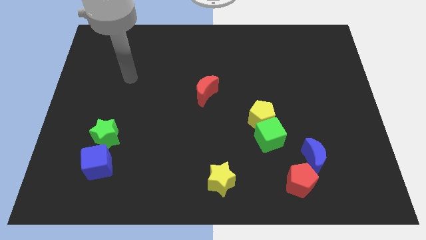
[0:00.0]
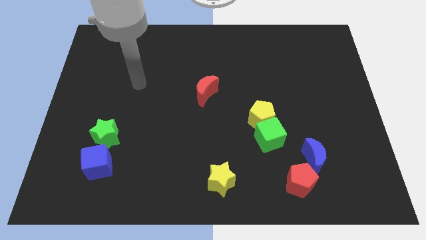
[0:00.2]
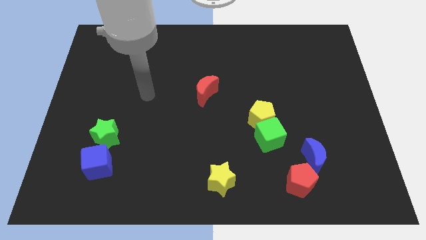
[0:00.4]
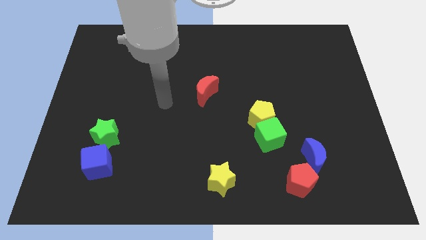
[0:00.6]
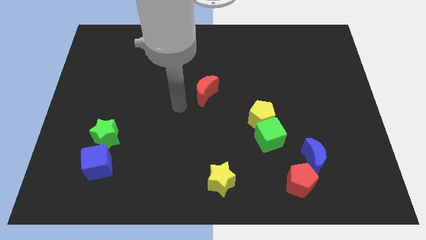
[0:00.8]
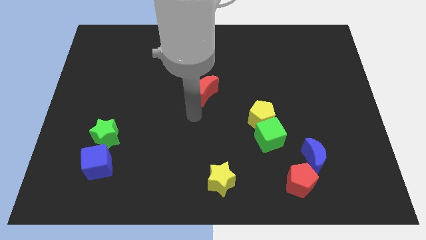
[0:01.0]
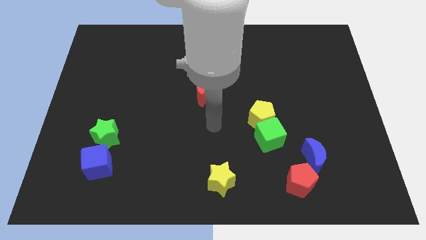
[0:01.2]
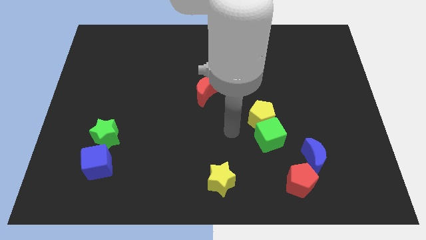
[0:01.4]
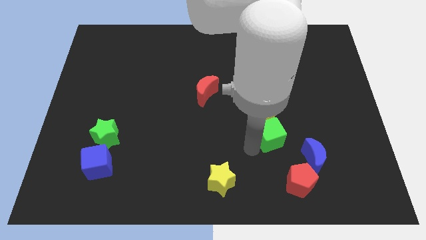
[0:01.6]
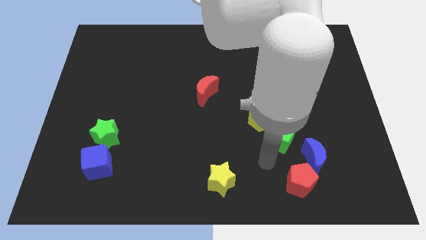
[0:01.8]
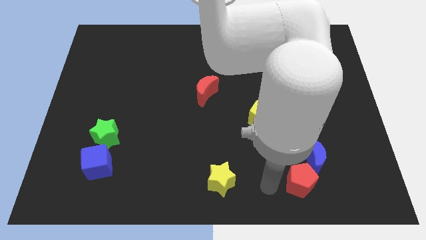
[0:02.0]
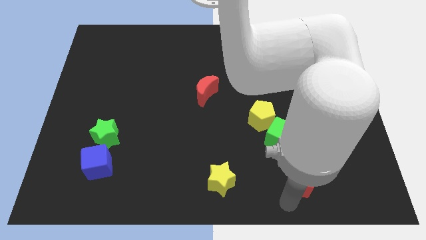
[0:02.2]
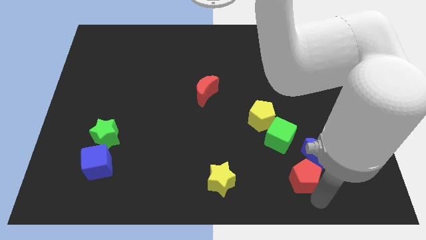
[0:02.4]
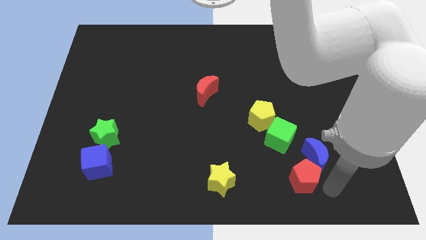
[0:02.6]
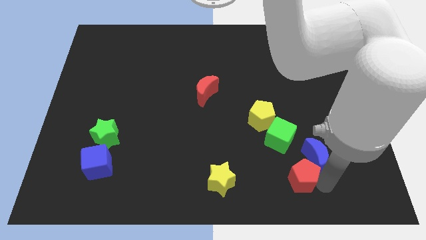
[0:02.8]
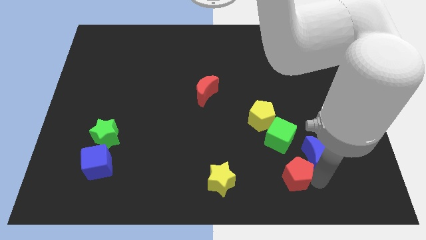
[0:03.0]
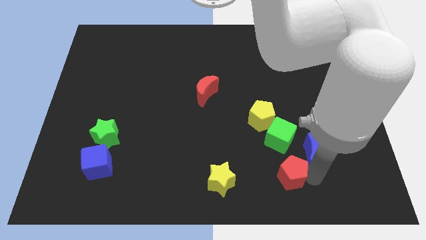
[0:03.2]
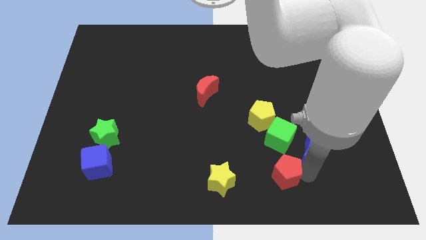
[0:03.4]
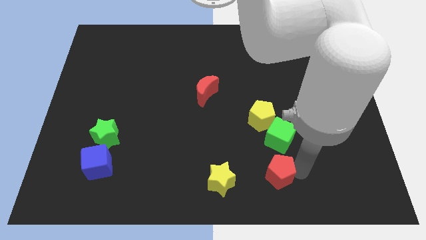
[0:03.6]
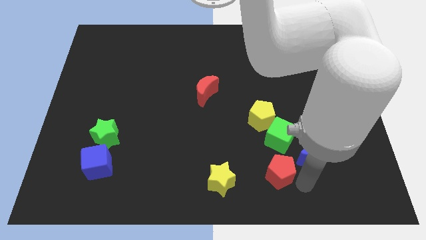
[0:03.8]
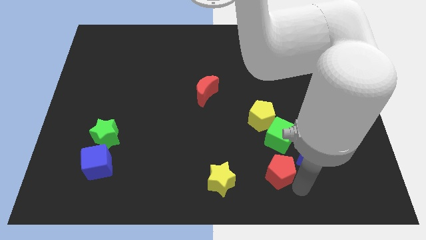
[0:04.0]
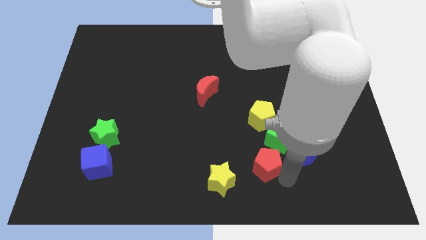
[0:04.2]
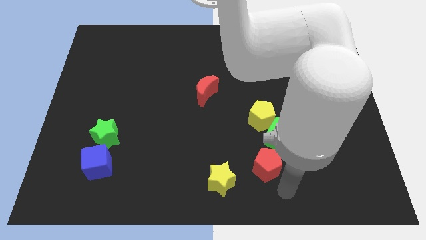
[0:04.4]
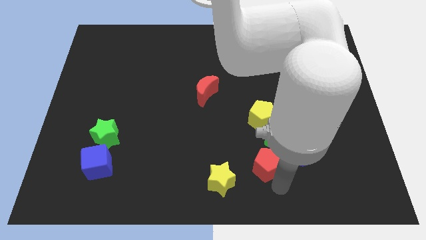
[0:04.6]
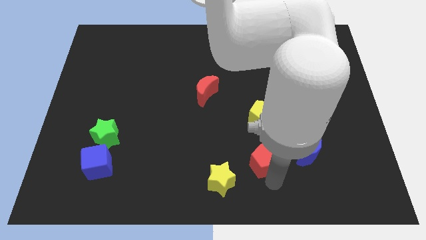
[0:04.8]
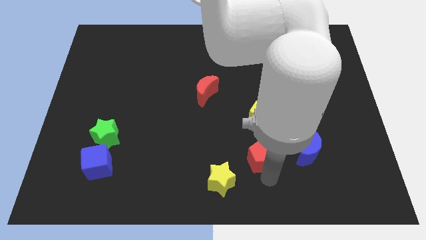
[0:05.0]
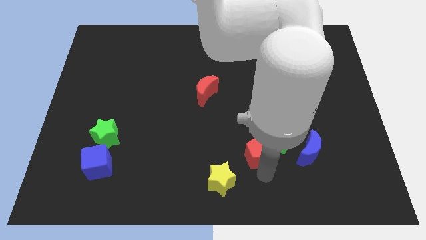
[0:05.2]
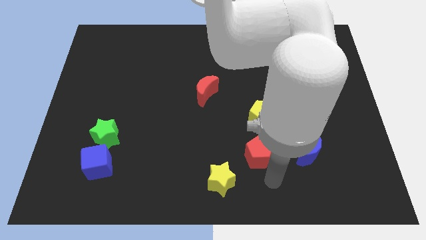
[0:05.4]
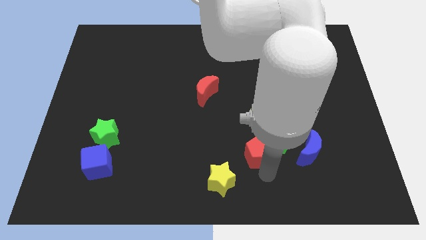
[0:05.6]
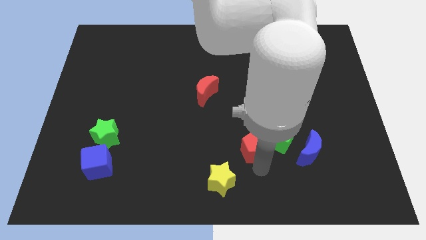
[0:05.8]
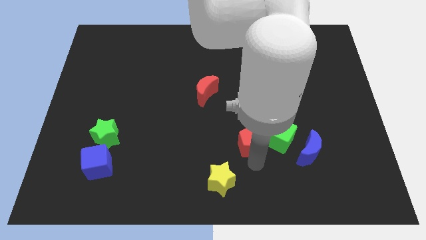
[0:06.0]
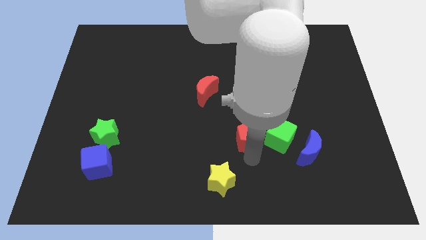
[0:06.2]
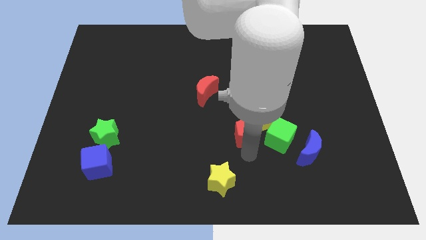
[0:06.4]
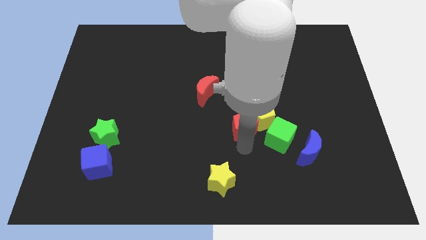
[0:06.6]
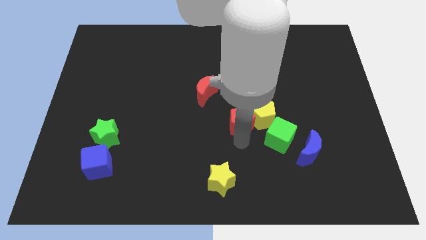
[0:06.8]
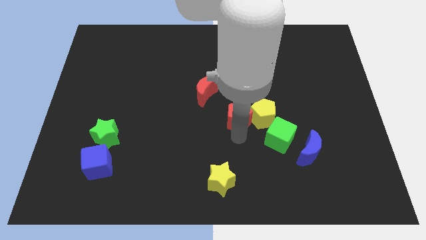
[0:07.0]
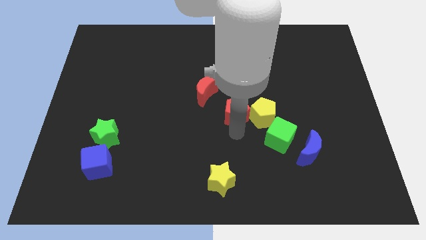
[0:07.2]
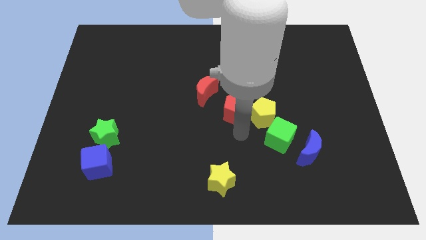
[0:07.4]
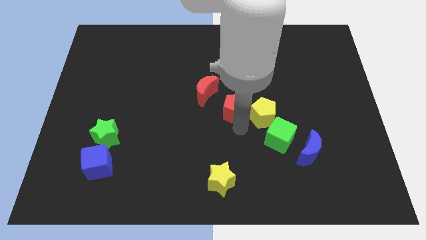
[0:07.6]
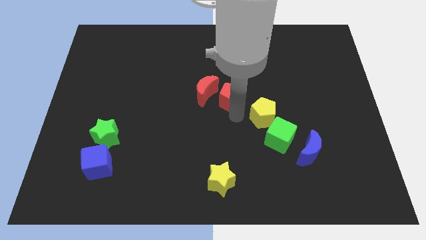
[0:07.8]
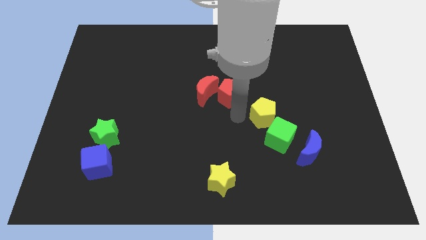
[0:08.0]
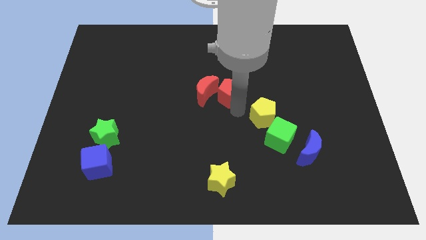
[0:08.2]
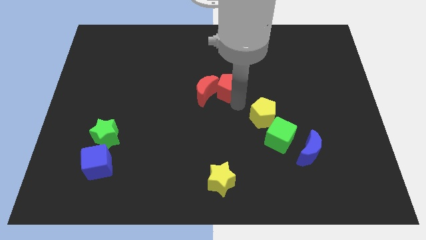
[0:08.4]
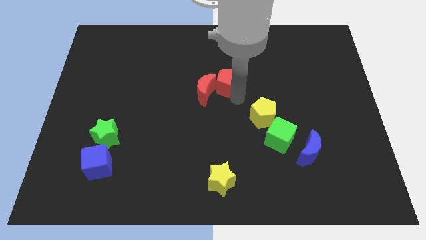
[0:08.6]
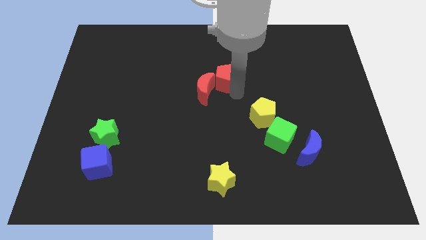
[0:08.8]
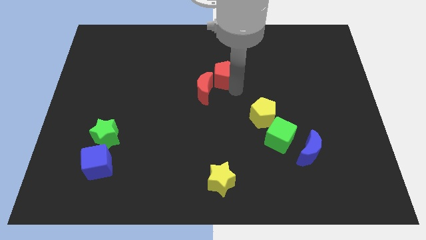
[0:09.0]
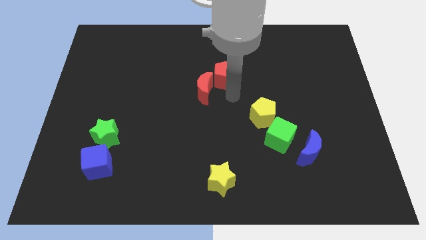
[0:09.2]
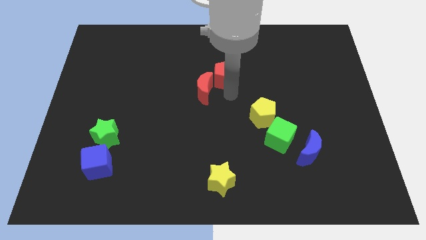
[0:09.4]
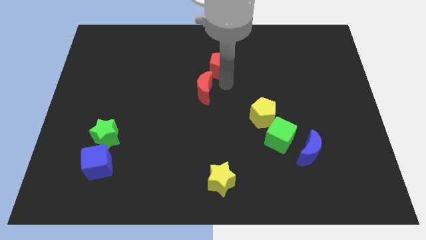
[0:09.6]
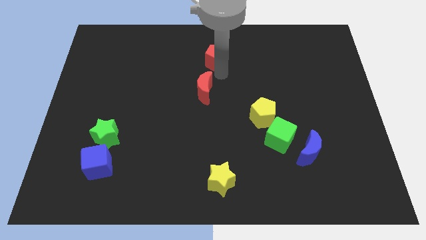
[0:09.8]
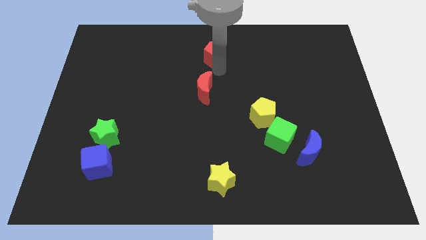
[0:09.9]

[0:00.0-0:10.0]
move the red pentagon to the top side

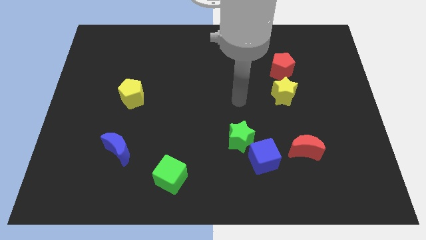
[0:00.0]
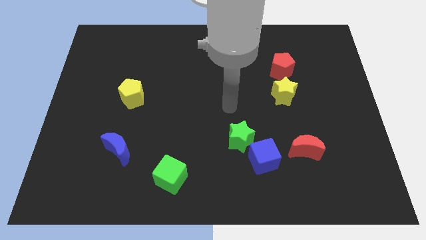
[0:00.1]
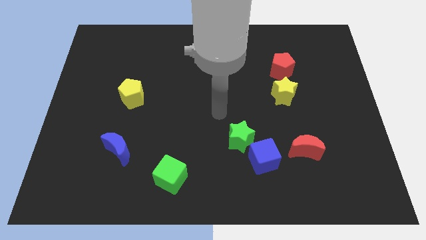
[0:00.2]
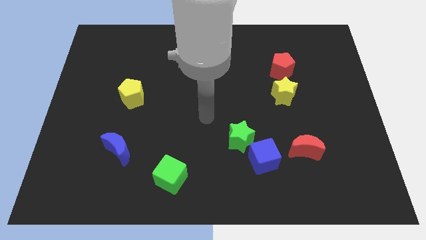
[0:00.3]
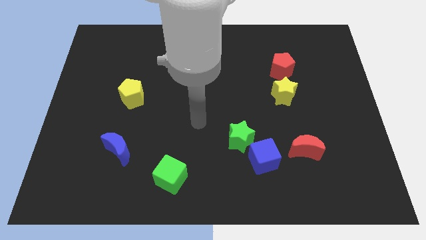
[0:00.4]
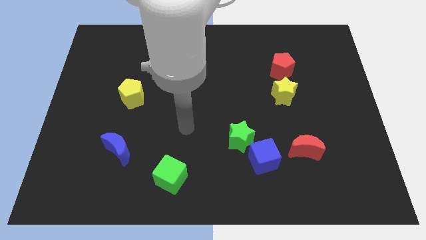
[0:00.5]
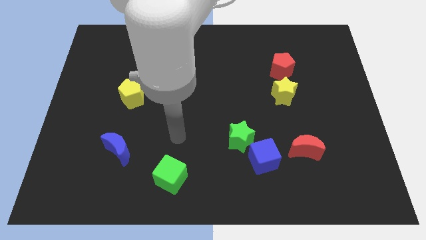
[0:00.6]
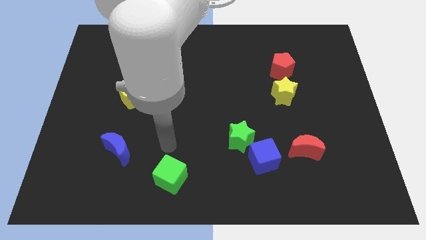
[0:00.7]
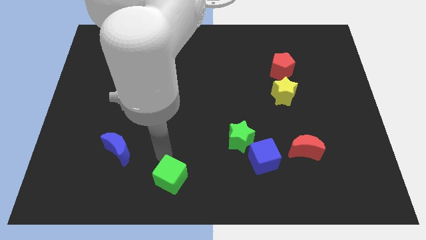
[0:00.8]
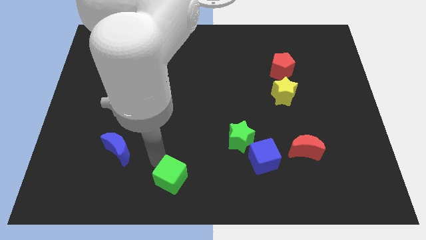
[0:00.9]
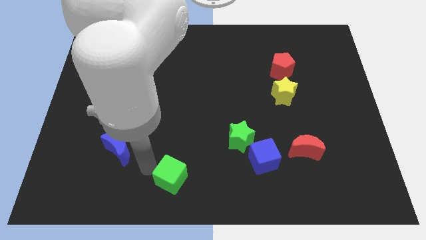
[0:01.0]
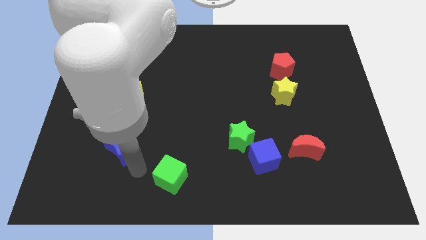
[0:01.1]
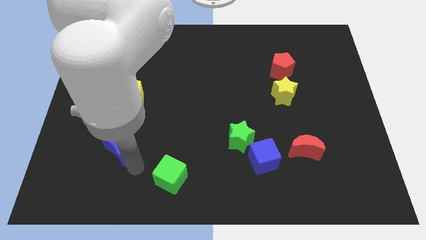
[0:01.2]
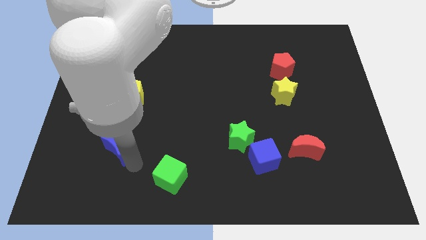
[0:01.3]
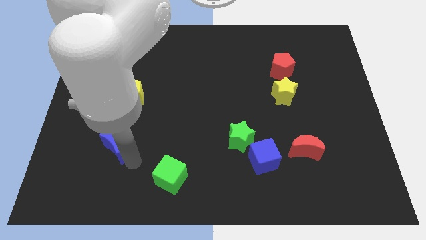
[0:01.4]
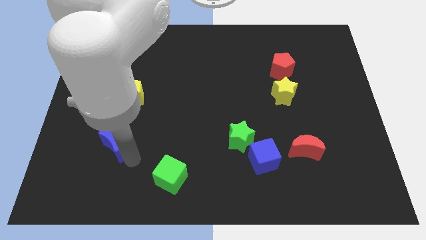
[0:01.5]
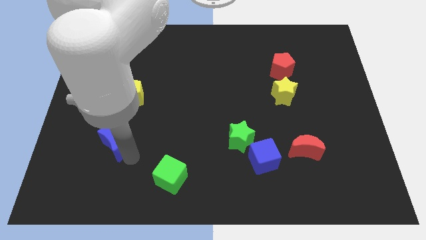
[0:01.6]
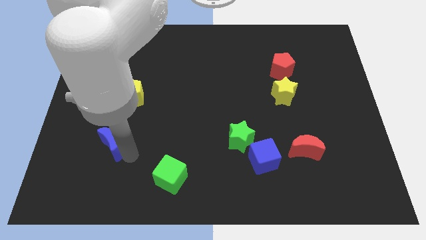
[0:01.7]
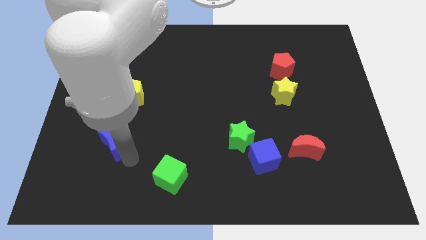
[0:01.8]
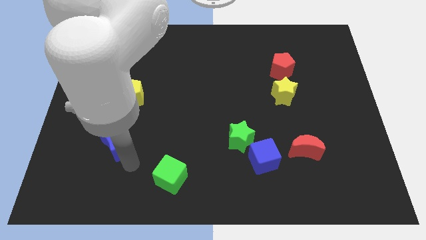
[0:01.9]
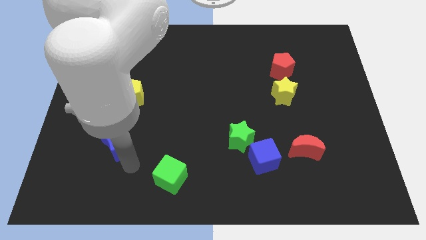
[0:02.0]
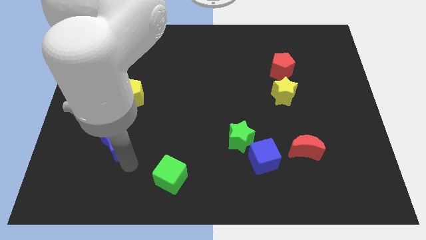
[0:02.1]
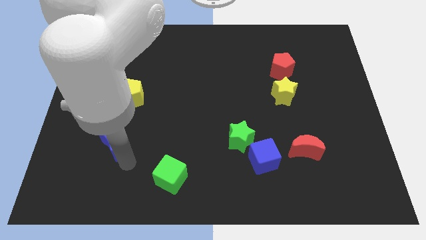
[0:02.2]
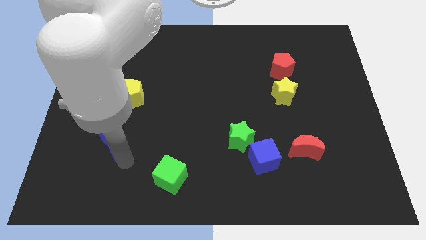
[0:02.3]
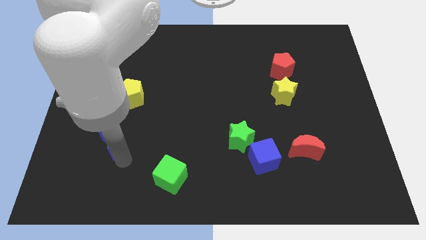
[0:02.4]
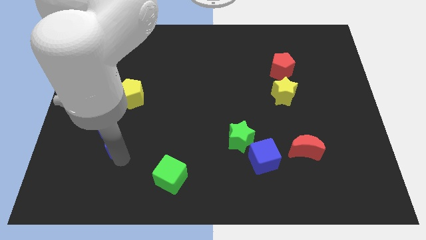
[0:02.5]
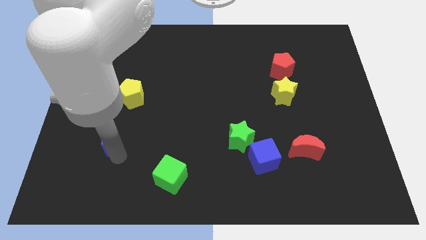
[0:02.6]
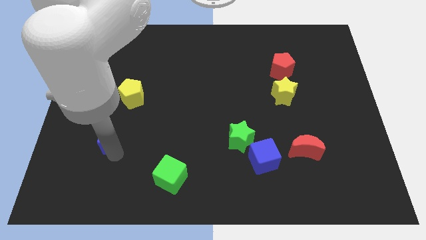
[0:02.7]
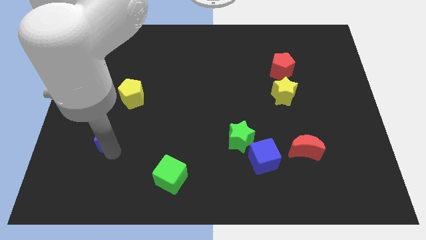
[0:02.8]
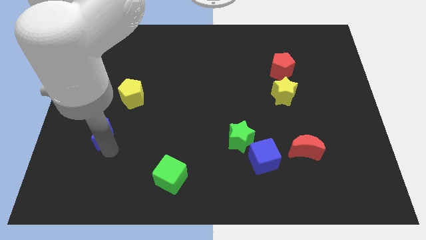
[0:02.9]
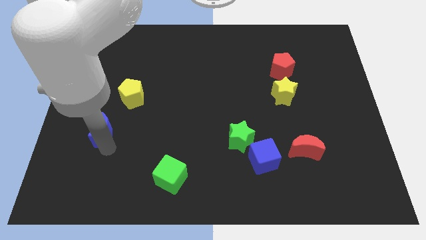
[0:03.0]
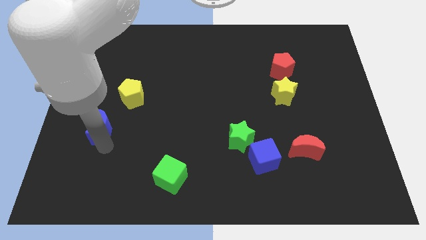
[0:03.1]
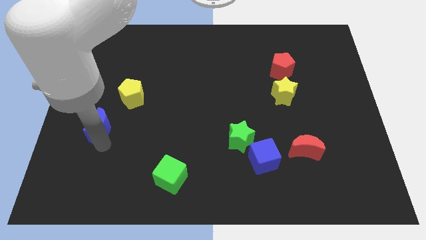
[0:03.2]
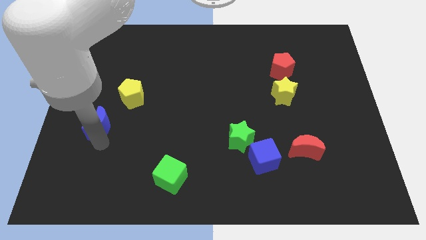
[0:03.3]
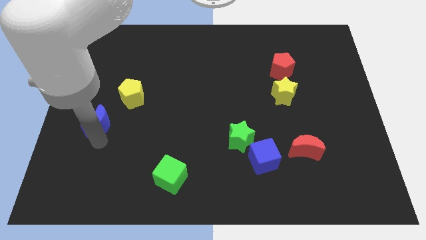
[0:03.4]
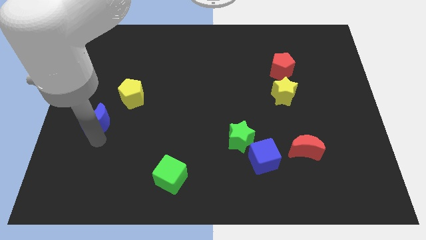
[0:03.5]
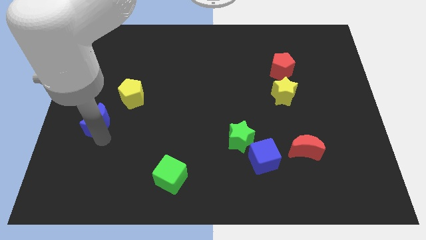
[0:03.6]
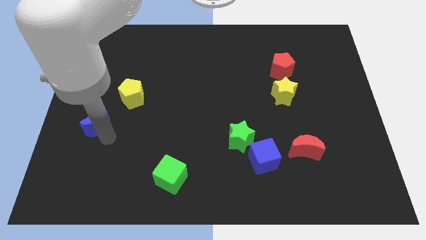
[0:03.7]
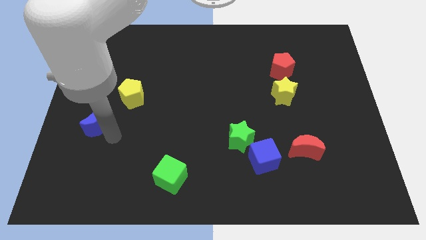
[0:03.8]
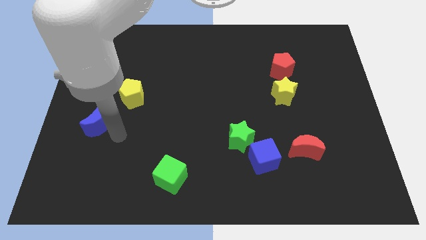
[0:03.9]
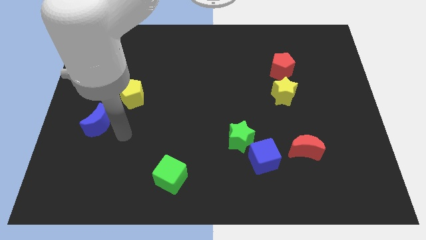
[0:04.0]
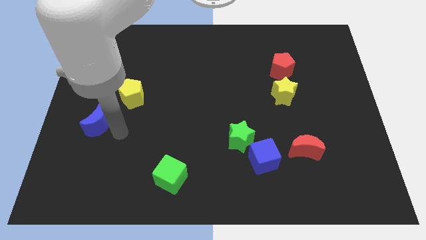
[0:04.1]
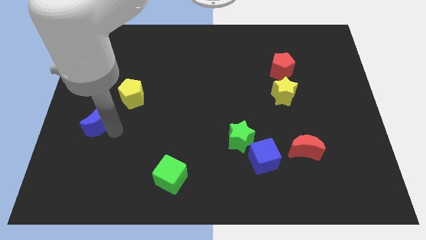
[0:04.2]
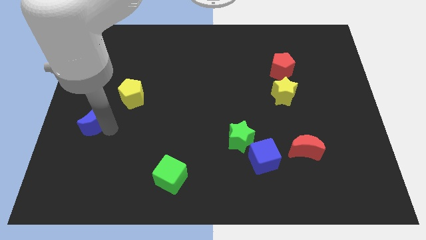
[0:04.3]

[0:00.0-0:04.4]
put the blue moon to the center left
